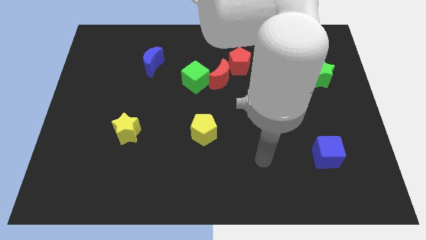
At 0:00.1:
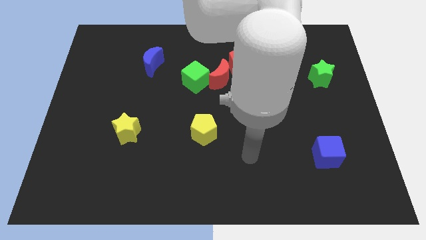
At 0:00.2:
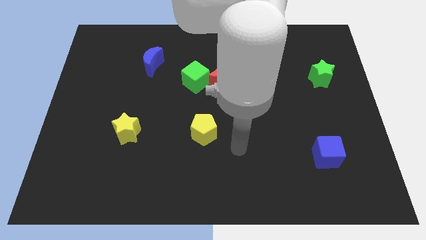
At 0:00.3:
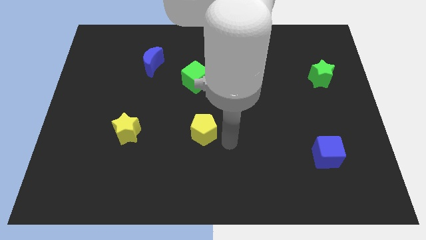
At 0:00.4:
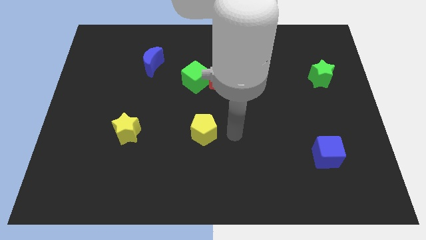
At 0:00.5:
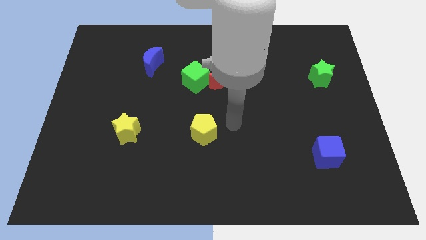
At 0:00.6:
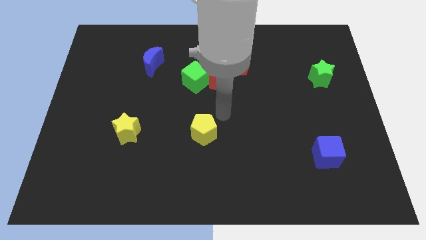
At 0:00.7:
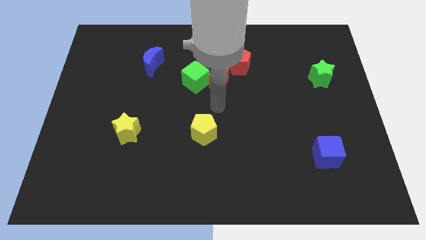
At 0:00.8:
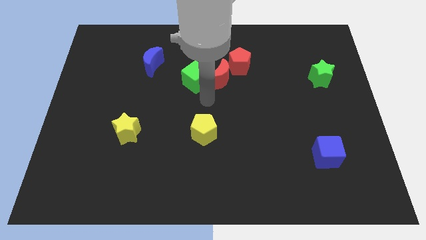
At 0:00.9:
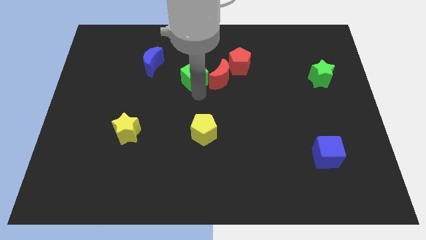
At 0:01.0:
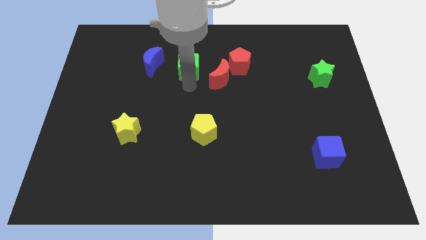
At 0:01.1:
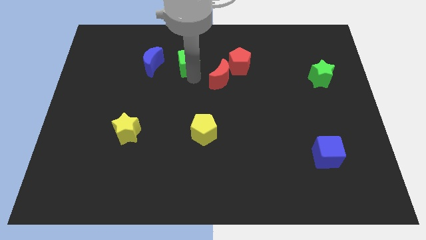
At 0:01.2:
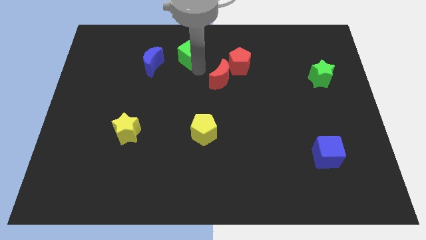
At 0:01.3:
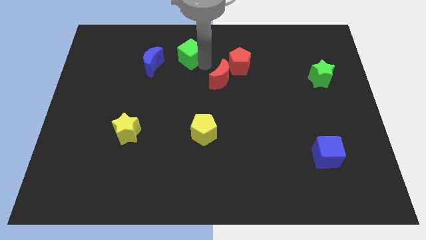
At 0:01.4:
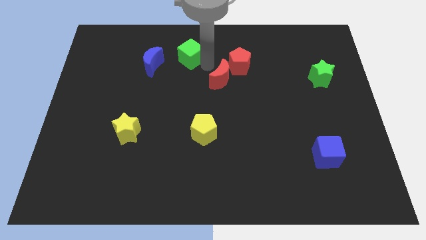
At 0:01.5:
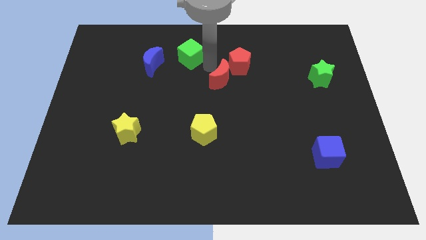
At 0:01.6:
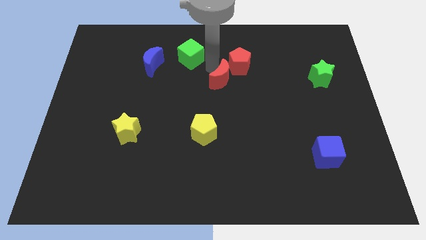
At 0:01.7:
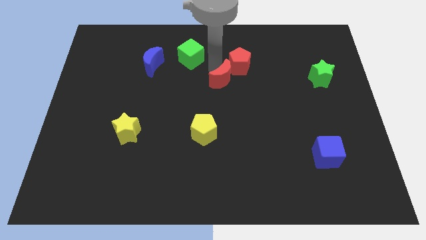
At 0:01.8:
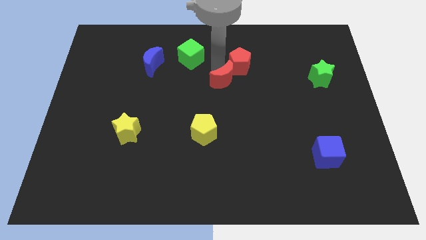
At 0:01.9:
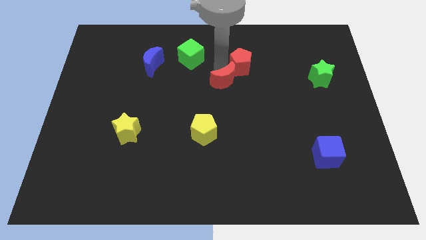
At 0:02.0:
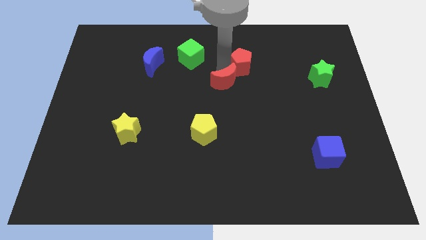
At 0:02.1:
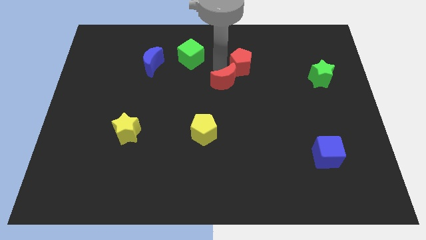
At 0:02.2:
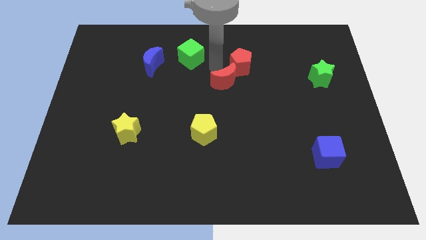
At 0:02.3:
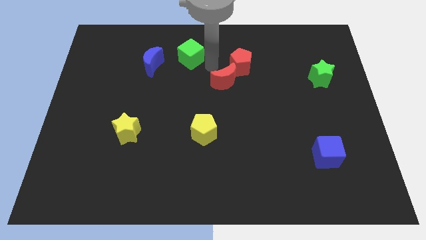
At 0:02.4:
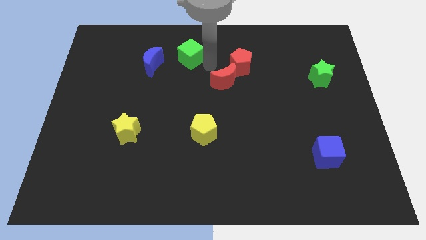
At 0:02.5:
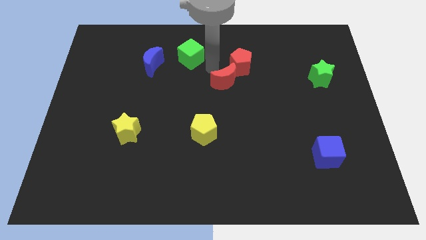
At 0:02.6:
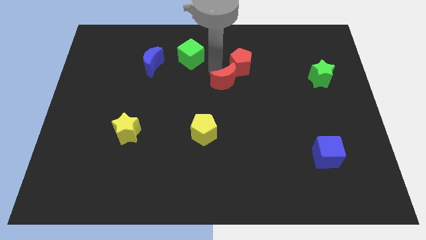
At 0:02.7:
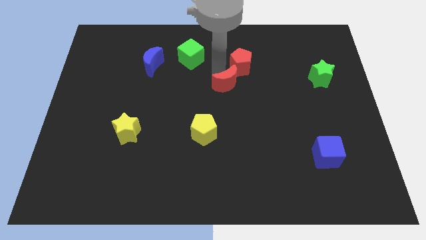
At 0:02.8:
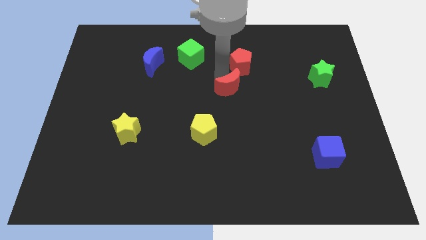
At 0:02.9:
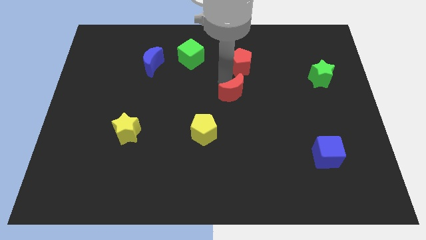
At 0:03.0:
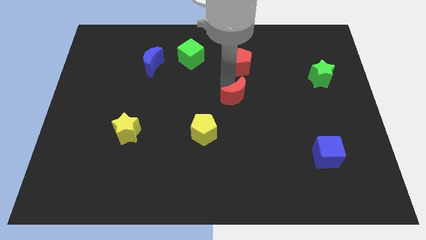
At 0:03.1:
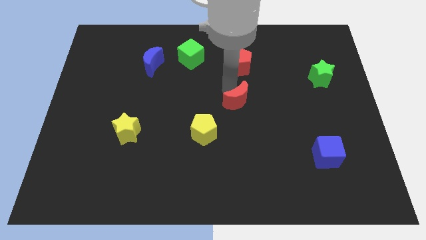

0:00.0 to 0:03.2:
push the red moon a little bit down and to the right diagonally

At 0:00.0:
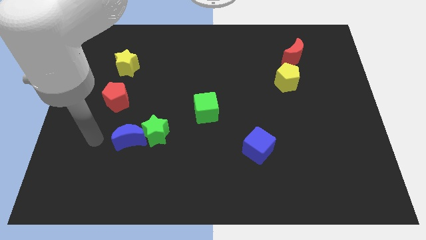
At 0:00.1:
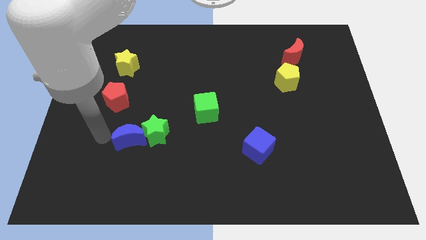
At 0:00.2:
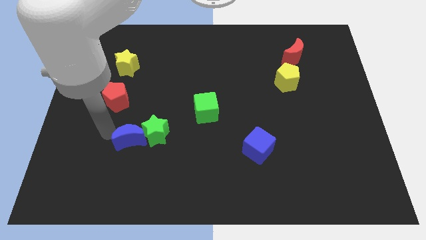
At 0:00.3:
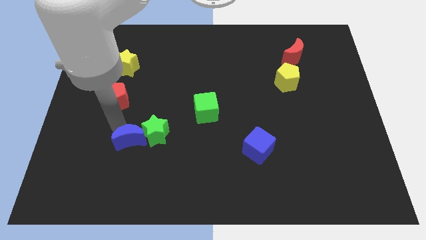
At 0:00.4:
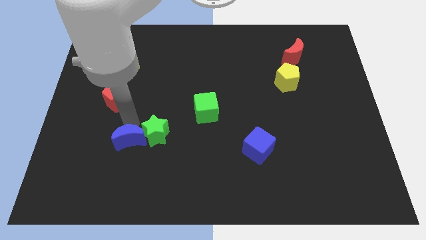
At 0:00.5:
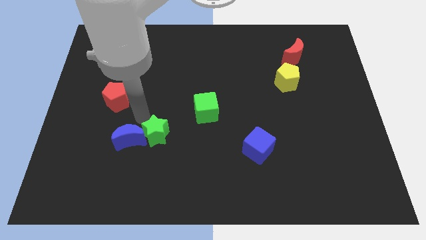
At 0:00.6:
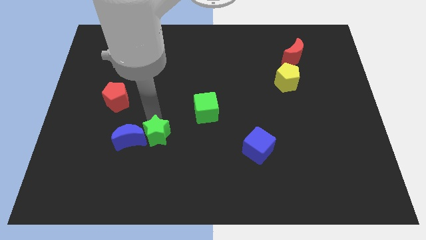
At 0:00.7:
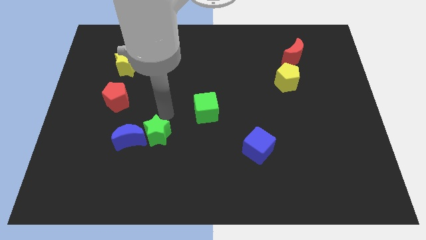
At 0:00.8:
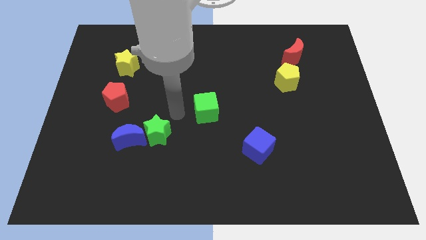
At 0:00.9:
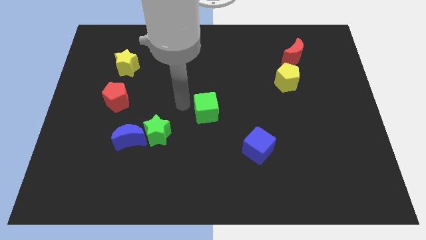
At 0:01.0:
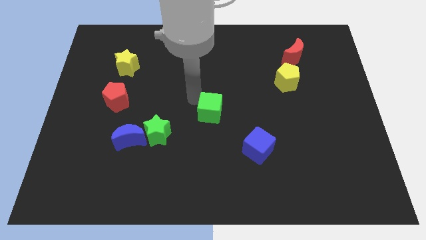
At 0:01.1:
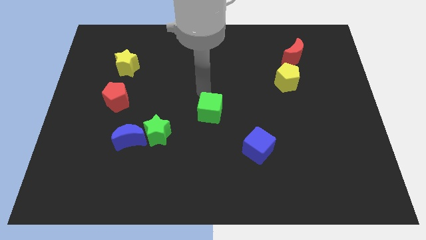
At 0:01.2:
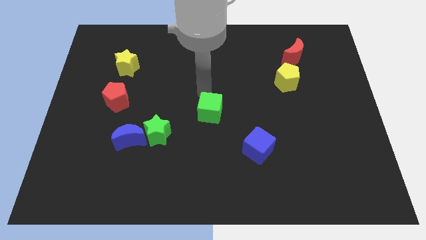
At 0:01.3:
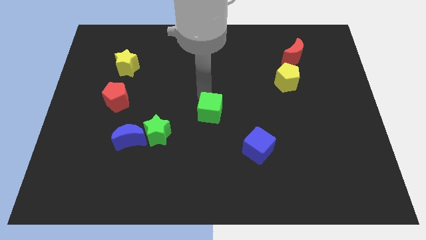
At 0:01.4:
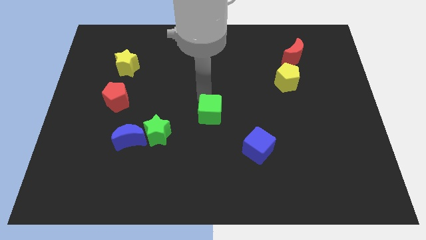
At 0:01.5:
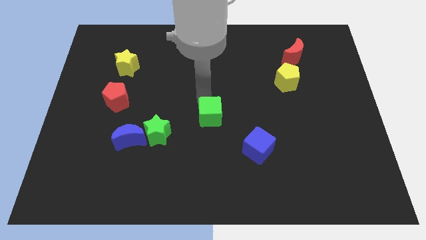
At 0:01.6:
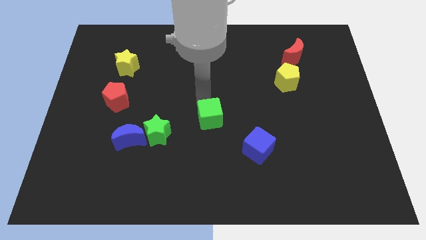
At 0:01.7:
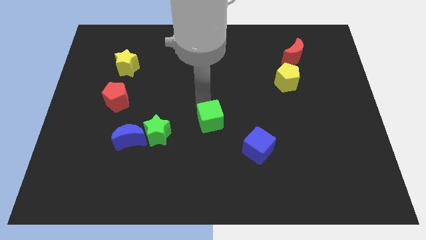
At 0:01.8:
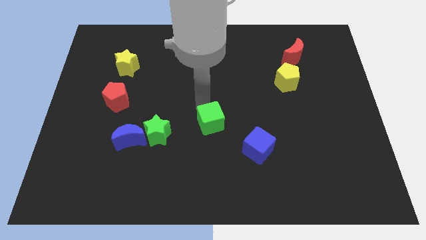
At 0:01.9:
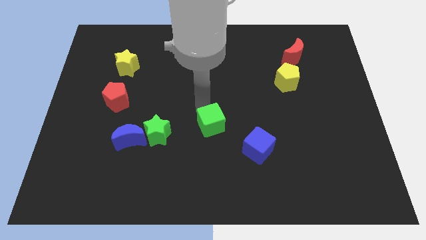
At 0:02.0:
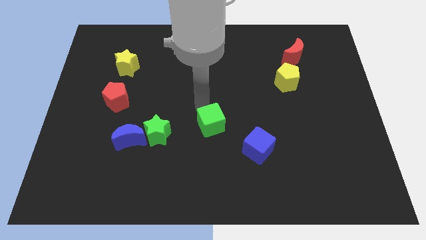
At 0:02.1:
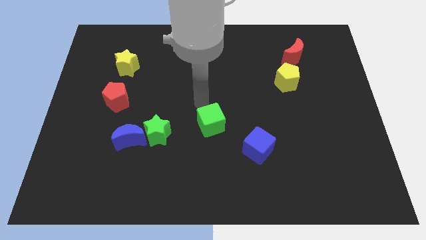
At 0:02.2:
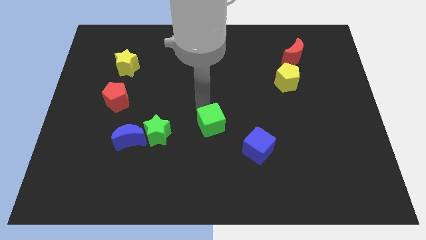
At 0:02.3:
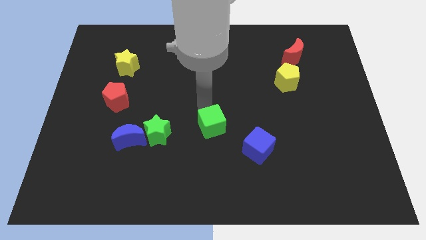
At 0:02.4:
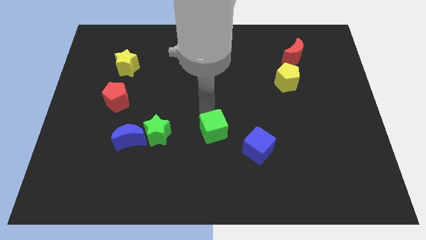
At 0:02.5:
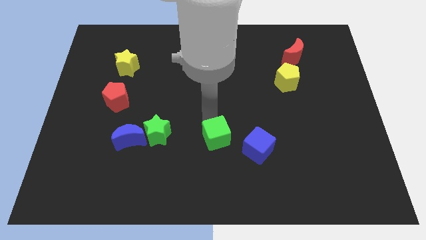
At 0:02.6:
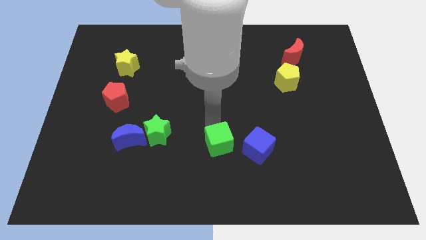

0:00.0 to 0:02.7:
move the green cube somewhat diagonally down and right

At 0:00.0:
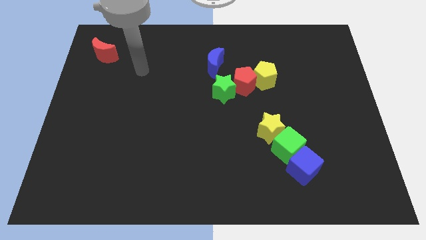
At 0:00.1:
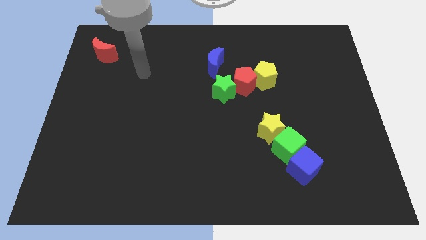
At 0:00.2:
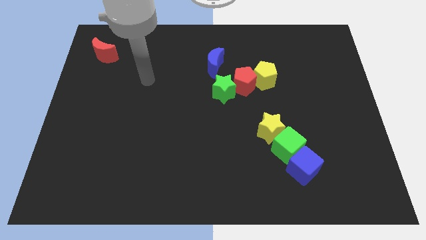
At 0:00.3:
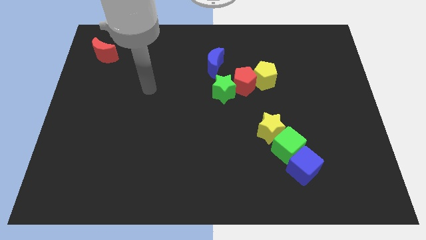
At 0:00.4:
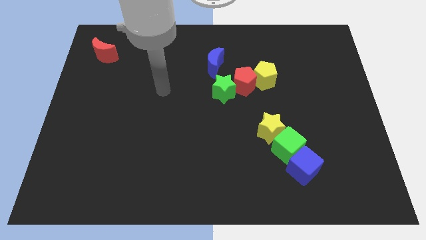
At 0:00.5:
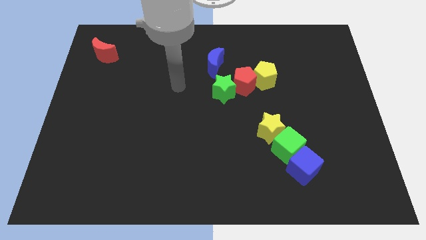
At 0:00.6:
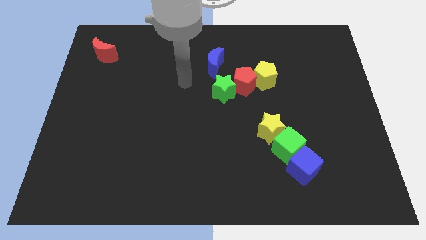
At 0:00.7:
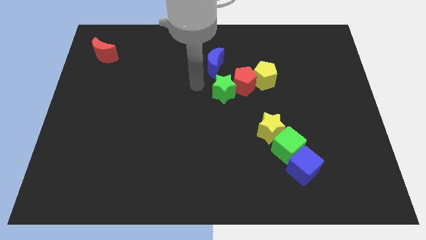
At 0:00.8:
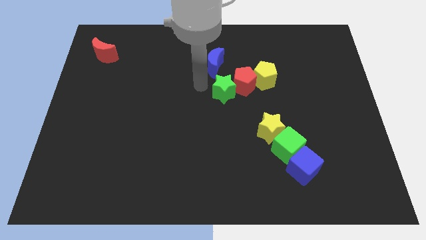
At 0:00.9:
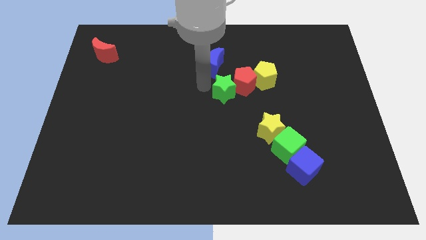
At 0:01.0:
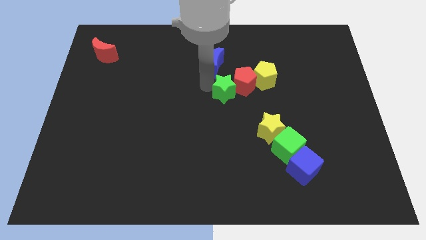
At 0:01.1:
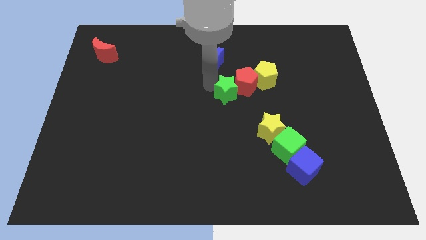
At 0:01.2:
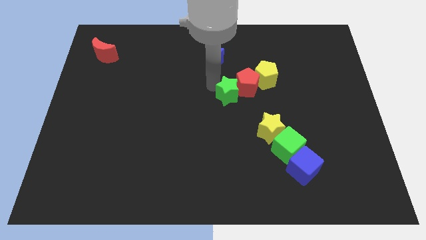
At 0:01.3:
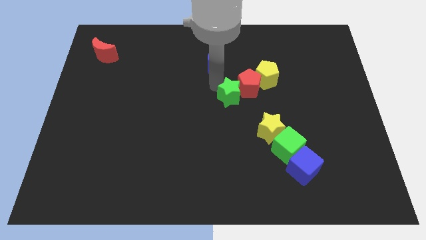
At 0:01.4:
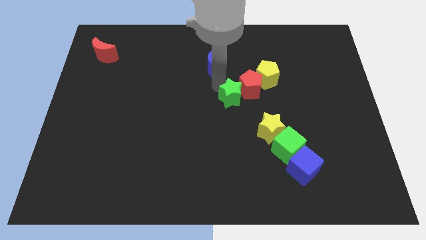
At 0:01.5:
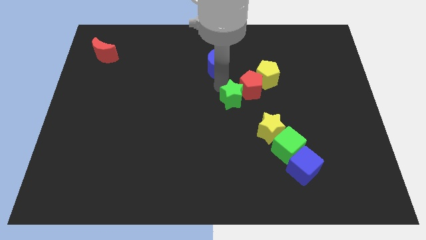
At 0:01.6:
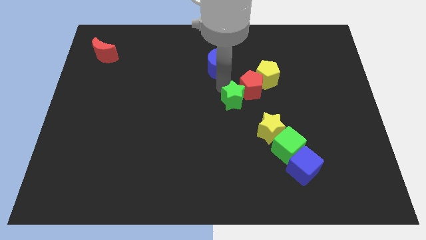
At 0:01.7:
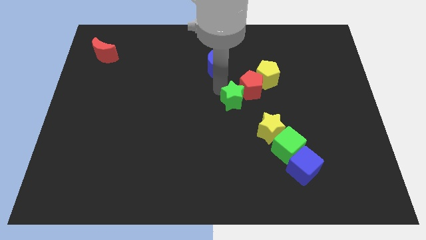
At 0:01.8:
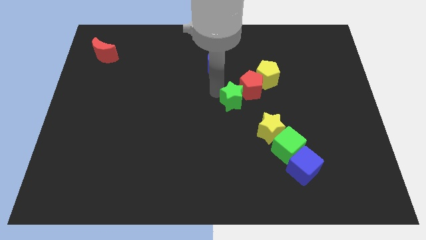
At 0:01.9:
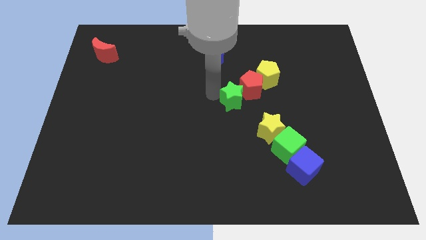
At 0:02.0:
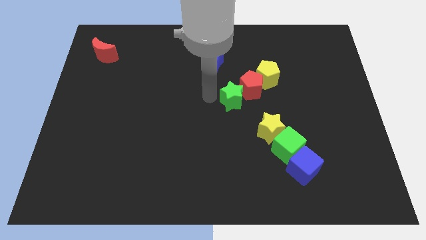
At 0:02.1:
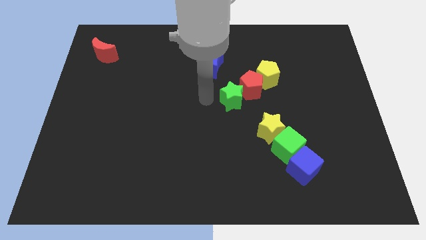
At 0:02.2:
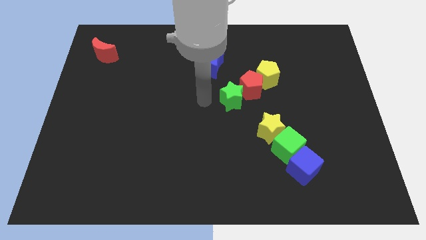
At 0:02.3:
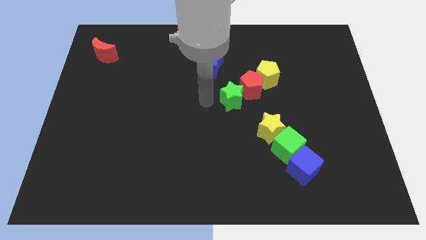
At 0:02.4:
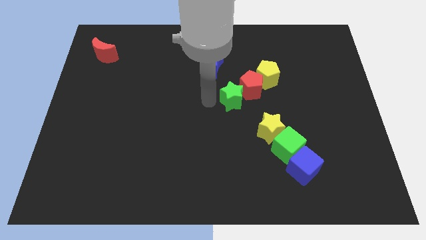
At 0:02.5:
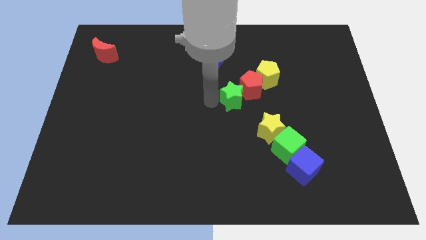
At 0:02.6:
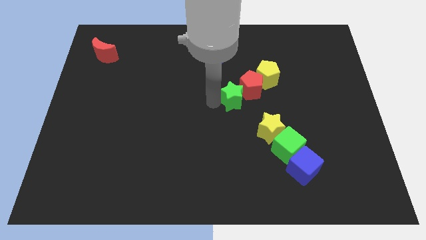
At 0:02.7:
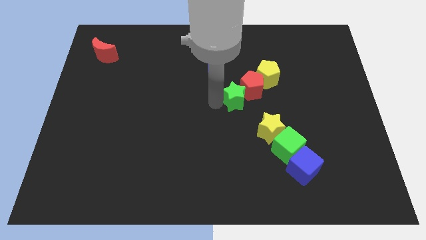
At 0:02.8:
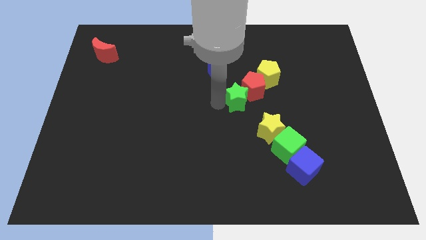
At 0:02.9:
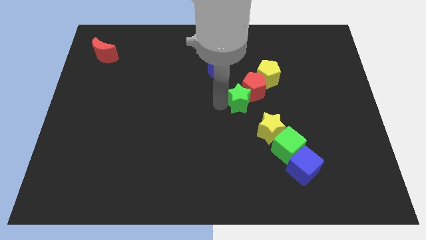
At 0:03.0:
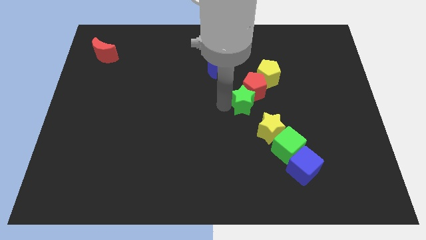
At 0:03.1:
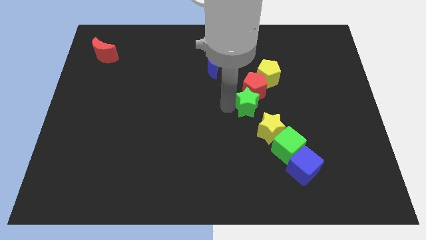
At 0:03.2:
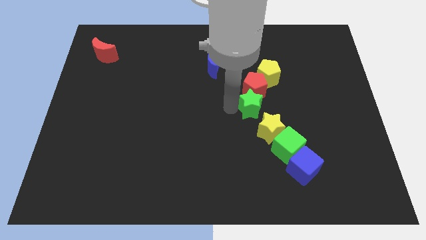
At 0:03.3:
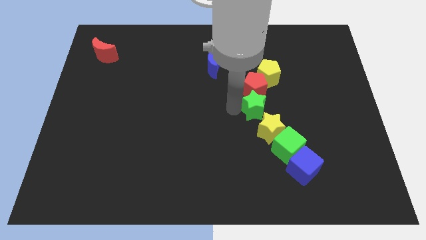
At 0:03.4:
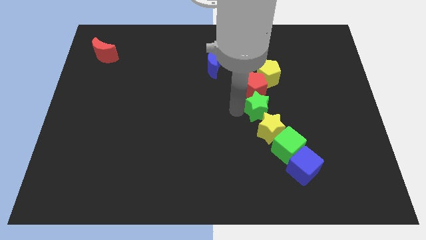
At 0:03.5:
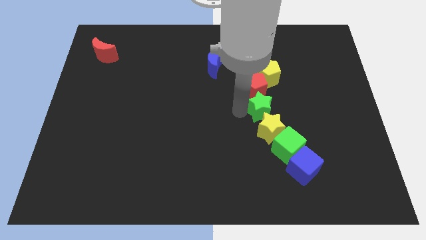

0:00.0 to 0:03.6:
move the green star right a bit
